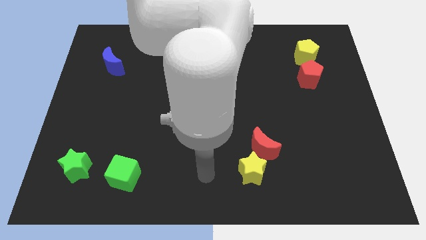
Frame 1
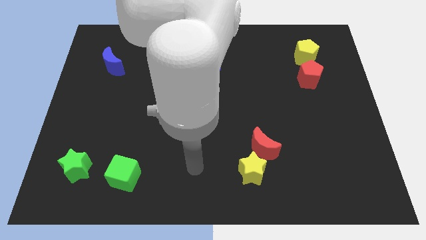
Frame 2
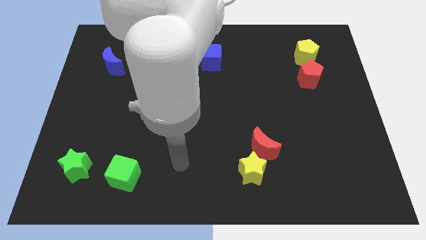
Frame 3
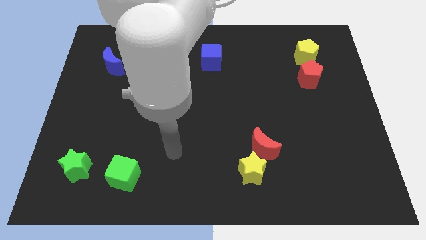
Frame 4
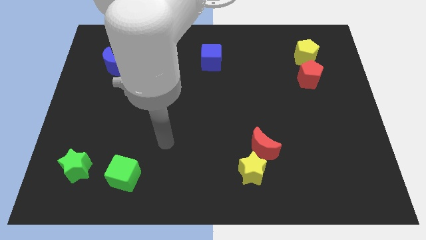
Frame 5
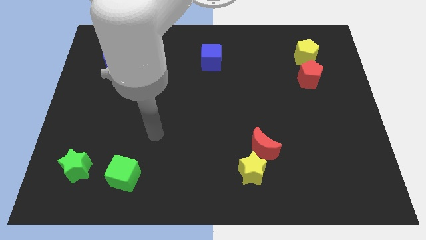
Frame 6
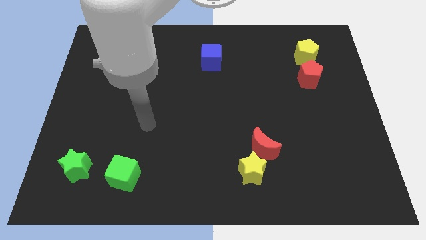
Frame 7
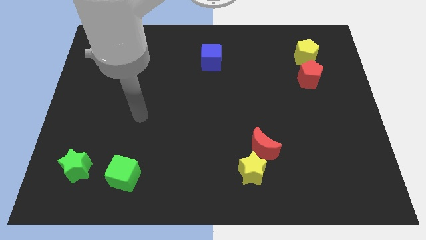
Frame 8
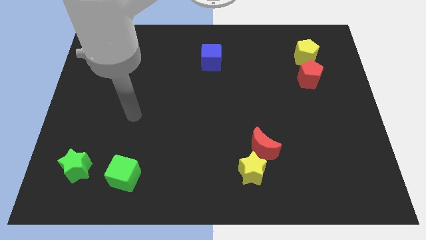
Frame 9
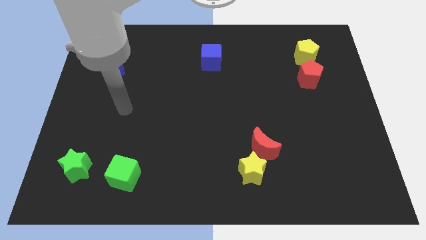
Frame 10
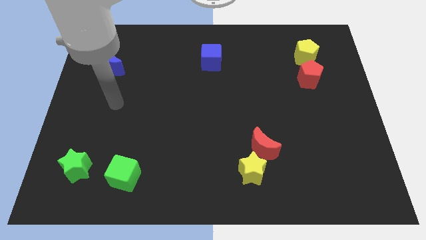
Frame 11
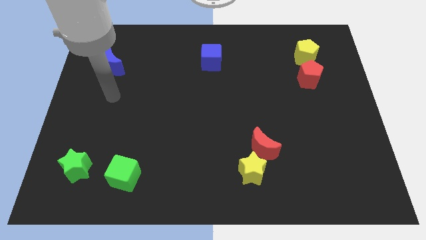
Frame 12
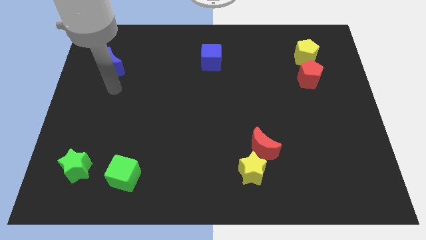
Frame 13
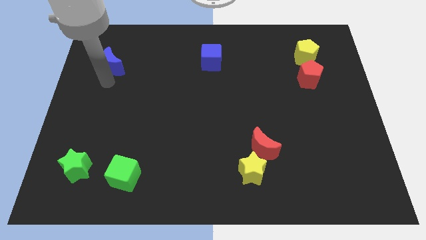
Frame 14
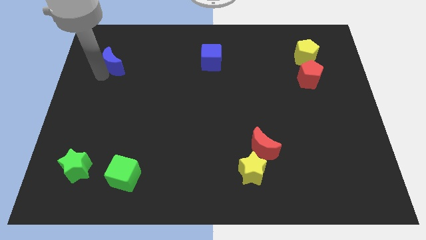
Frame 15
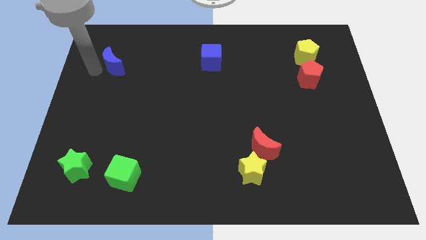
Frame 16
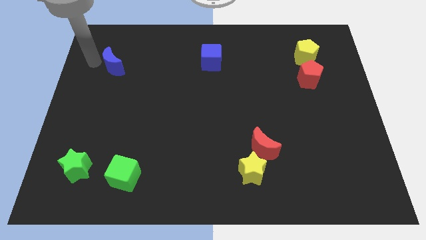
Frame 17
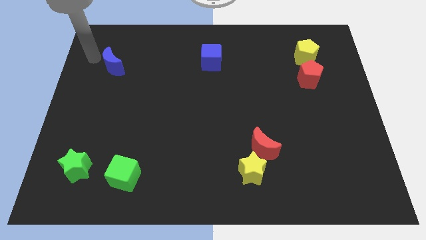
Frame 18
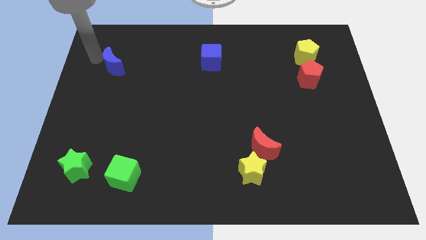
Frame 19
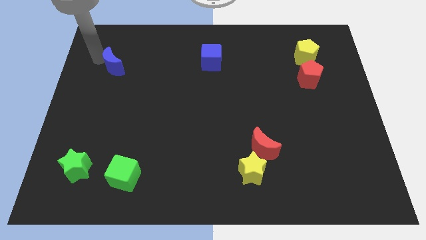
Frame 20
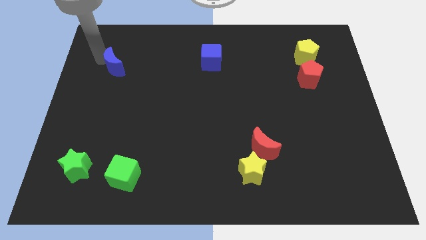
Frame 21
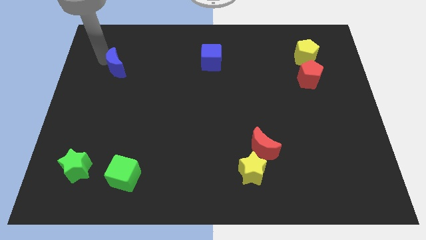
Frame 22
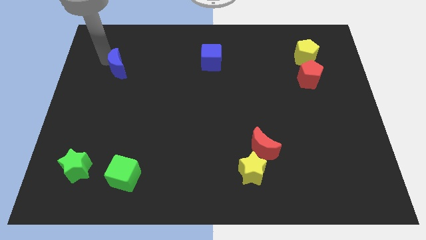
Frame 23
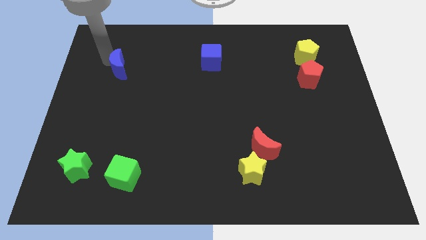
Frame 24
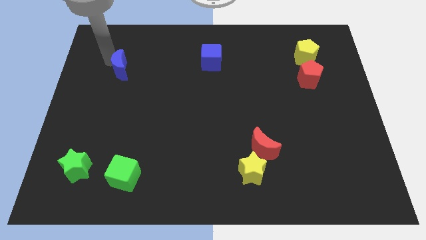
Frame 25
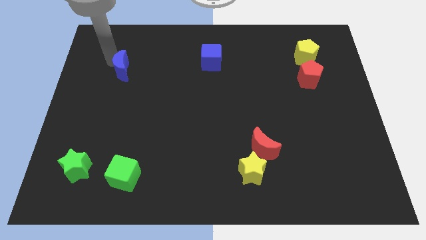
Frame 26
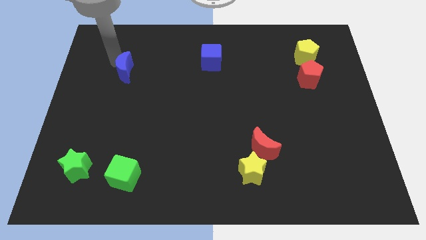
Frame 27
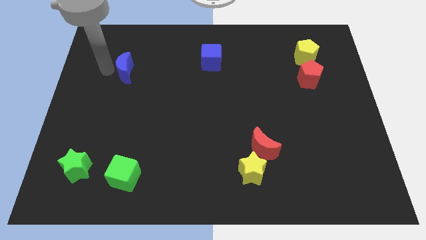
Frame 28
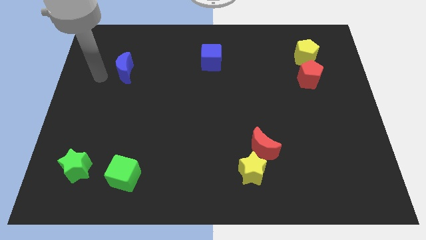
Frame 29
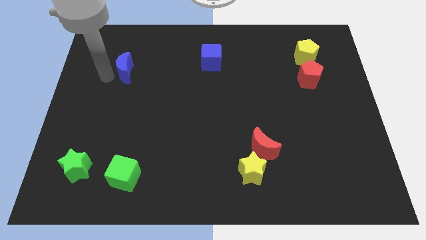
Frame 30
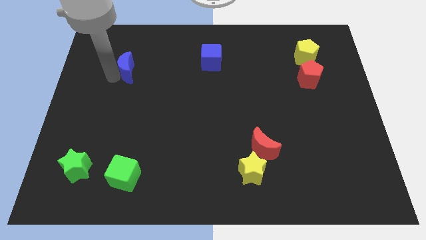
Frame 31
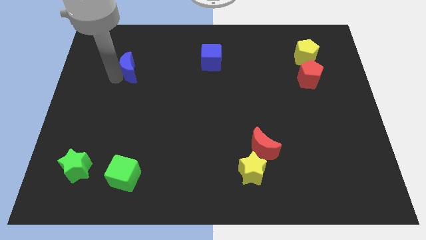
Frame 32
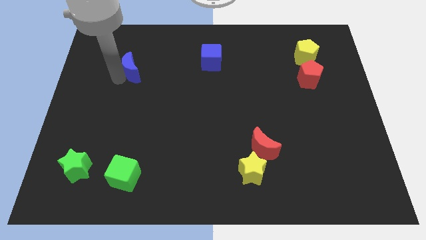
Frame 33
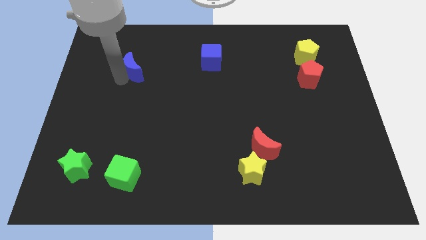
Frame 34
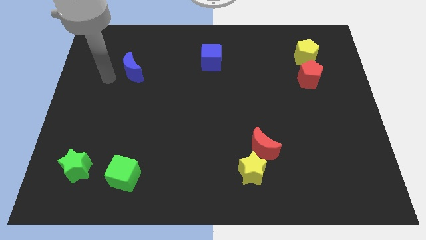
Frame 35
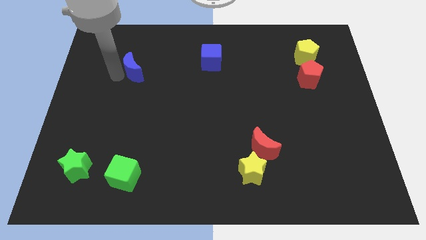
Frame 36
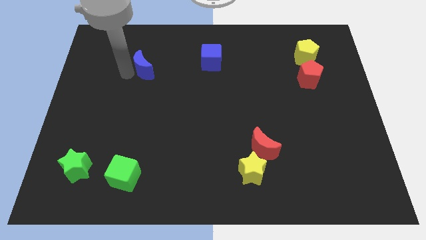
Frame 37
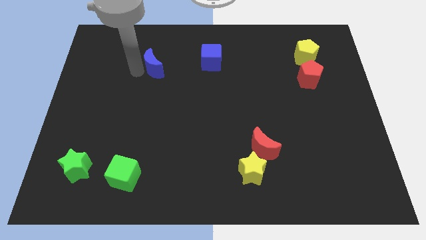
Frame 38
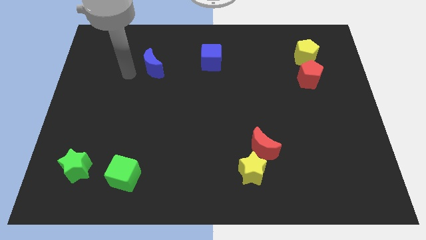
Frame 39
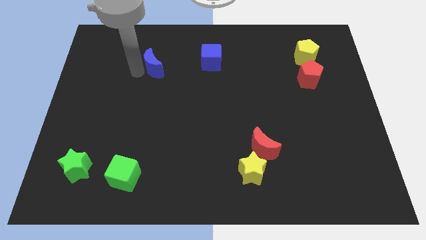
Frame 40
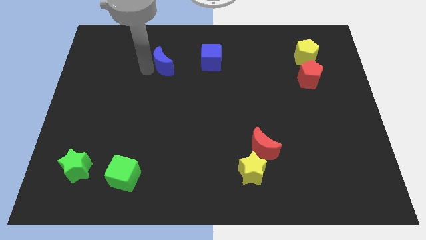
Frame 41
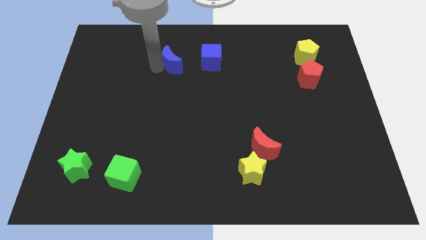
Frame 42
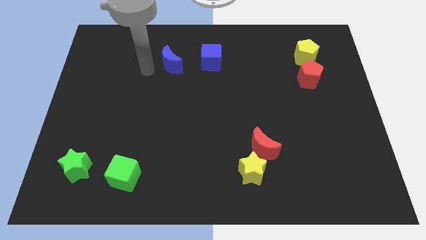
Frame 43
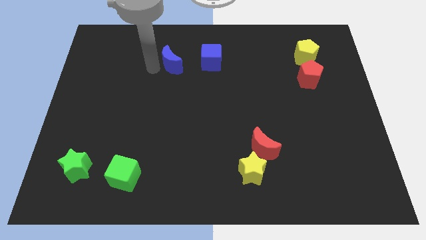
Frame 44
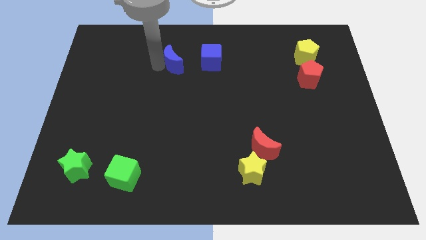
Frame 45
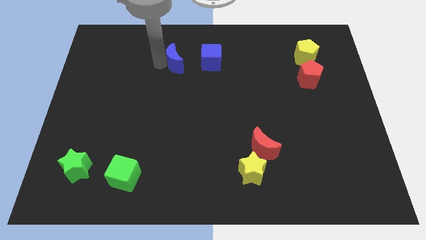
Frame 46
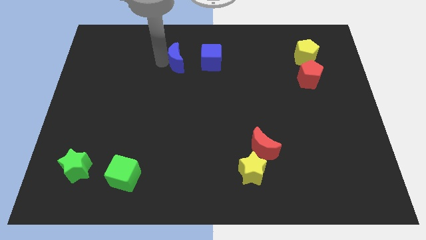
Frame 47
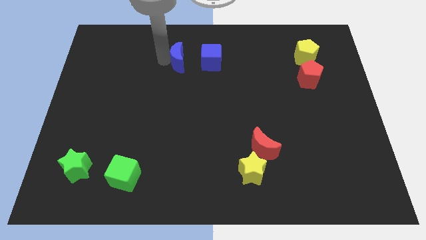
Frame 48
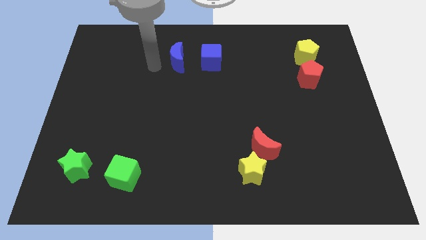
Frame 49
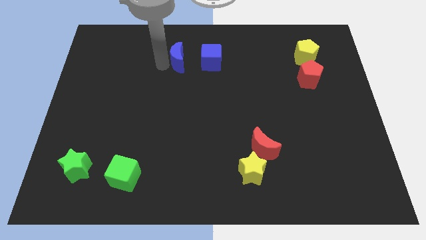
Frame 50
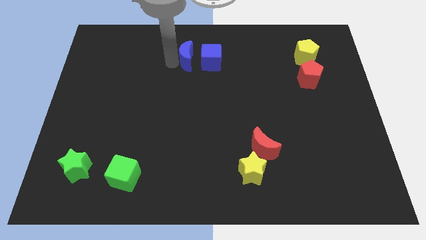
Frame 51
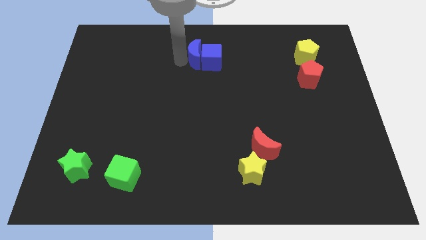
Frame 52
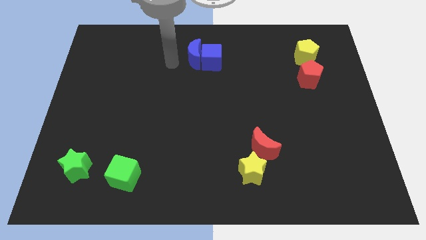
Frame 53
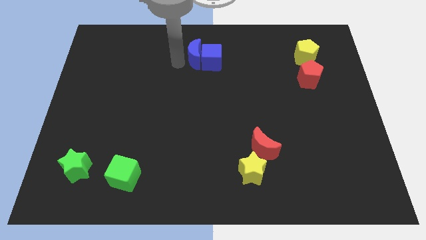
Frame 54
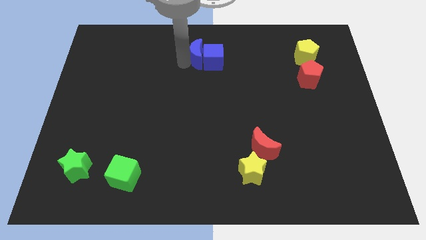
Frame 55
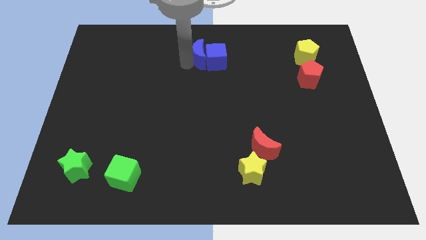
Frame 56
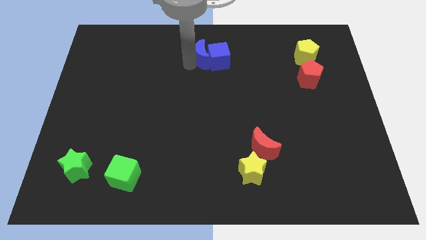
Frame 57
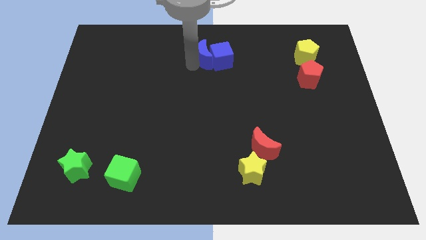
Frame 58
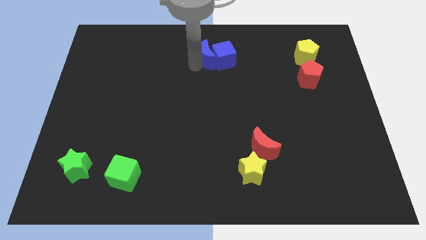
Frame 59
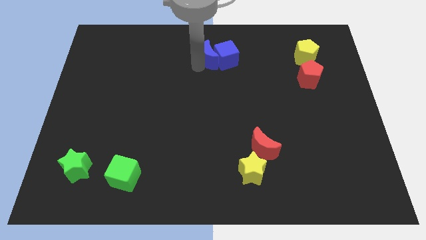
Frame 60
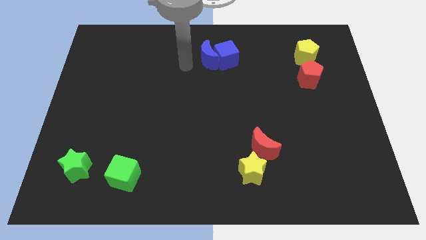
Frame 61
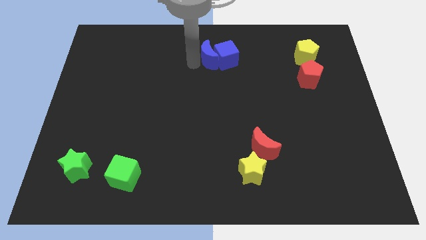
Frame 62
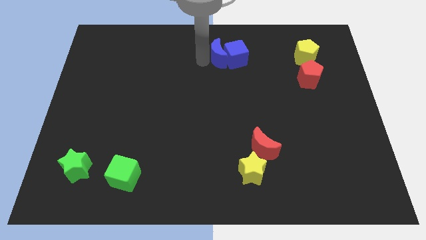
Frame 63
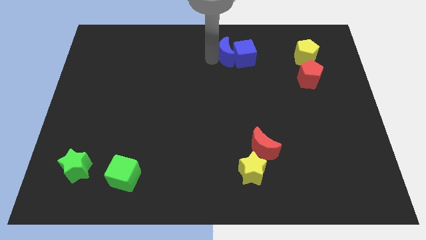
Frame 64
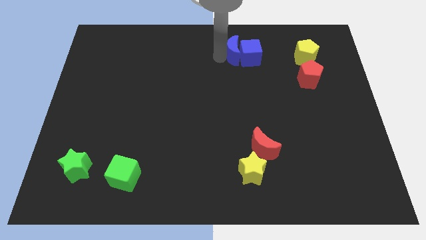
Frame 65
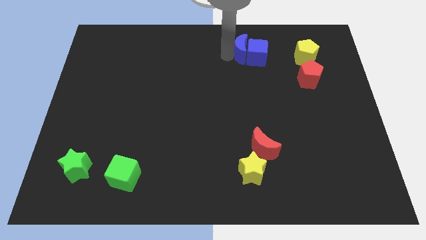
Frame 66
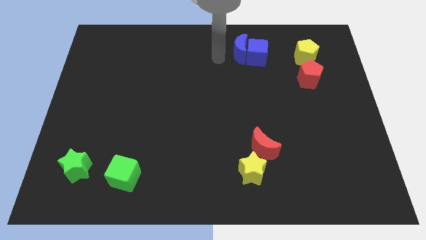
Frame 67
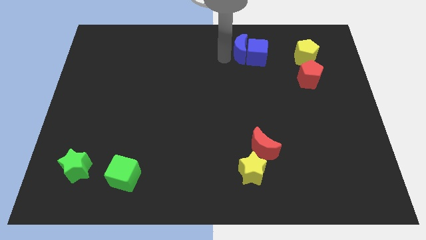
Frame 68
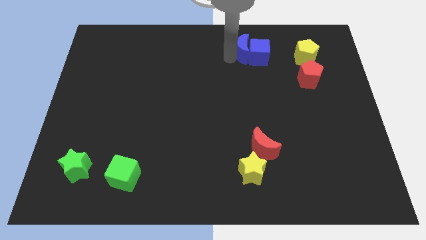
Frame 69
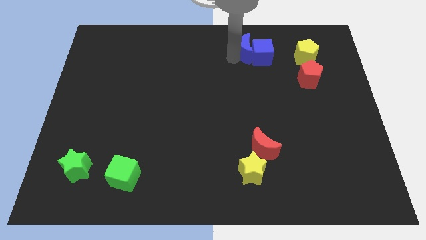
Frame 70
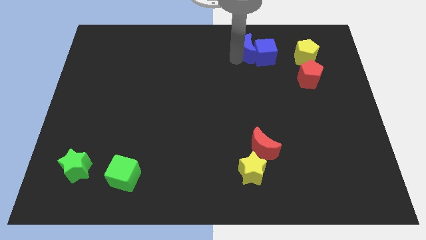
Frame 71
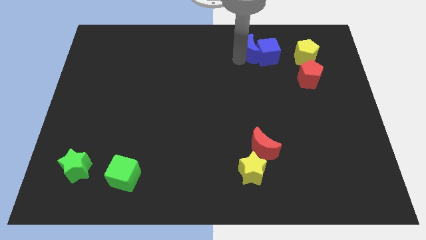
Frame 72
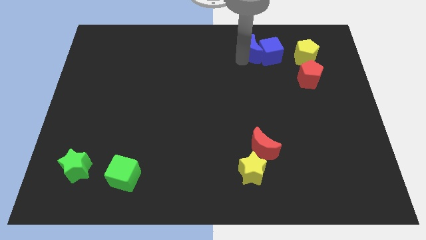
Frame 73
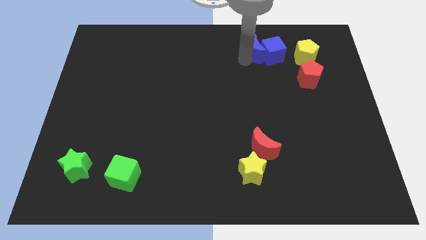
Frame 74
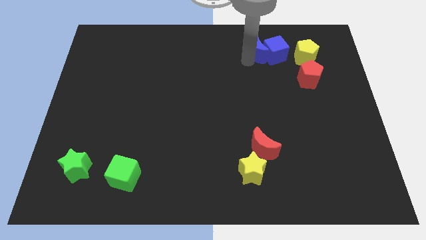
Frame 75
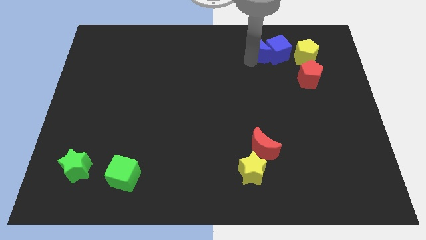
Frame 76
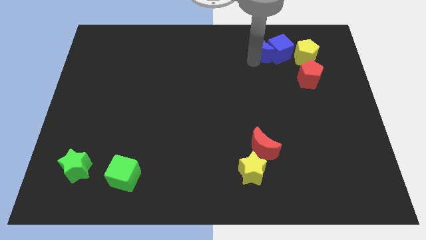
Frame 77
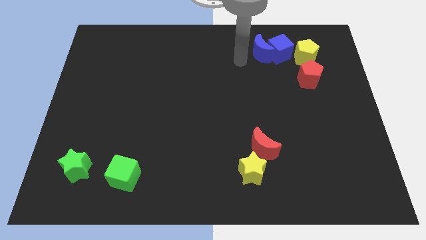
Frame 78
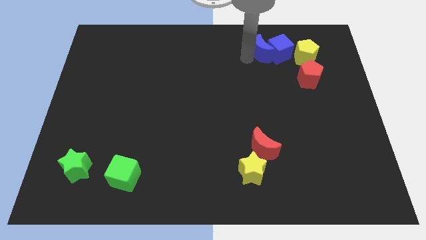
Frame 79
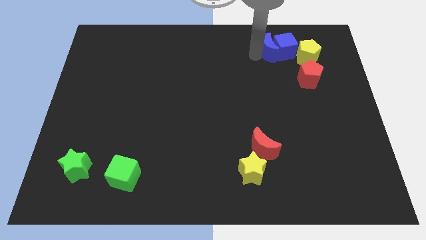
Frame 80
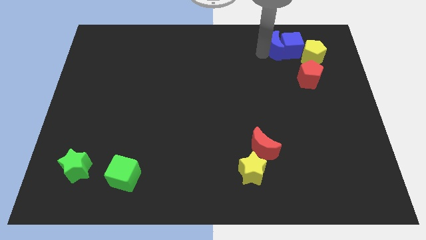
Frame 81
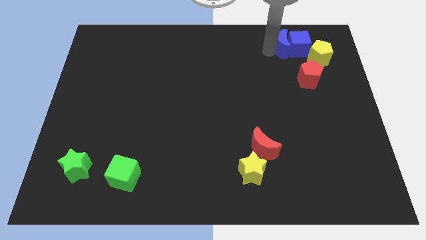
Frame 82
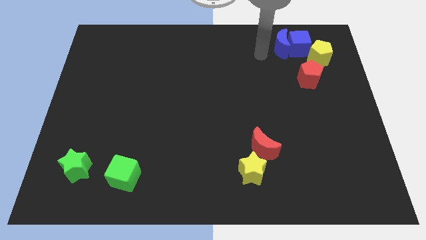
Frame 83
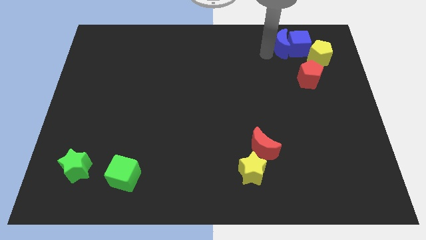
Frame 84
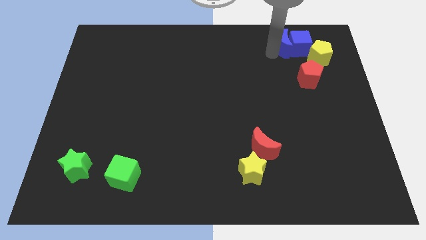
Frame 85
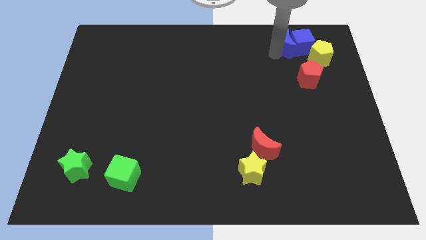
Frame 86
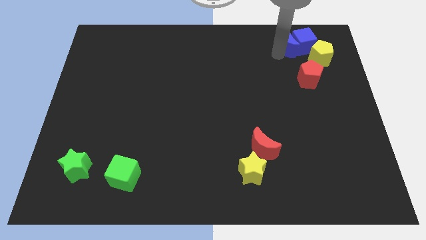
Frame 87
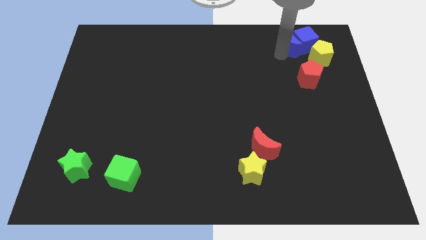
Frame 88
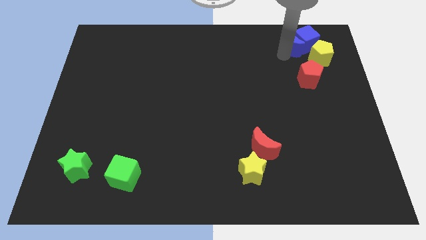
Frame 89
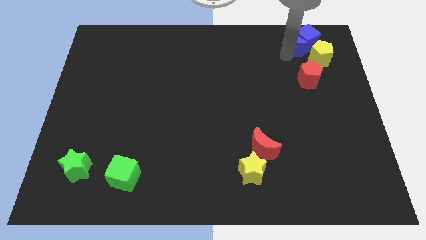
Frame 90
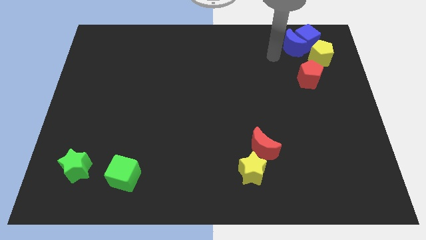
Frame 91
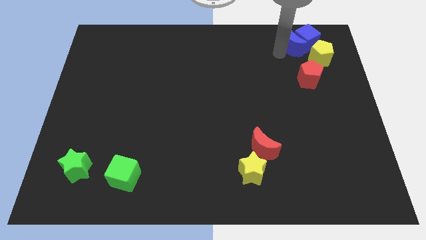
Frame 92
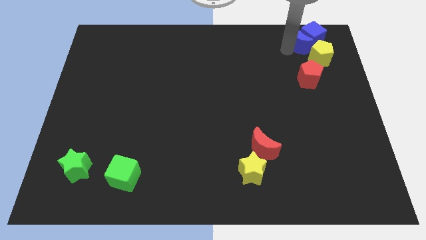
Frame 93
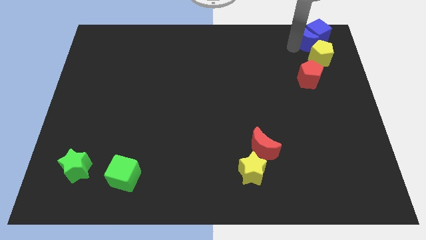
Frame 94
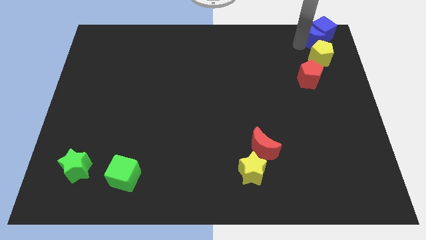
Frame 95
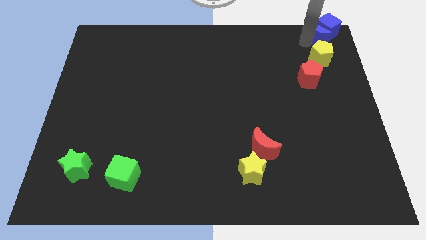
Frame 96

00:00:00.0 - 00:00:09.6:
push the blue moon to the top right
